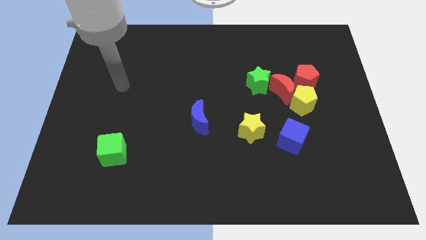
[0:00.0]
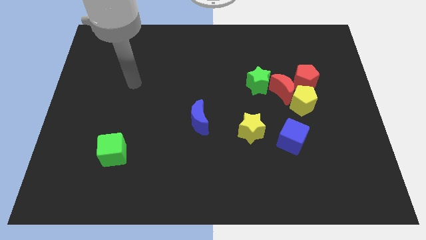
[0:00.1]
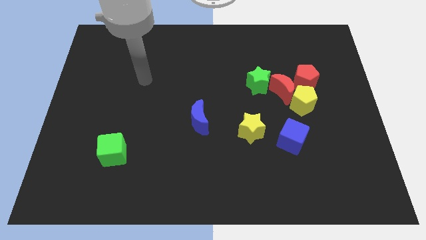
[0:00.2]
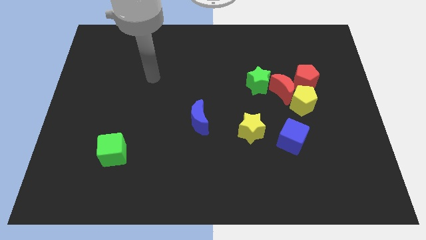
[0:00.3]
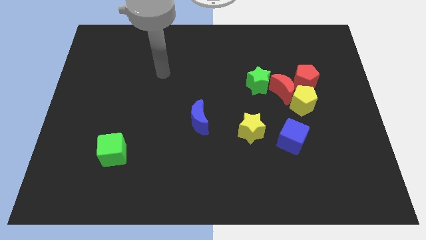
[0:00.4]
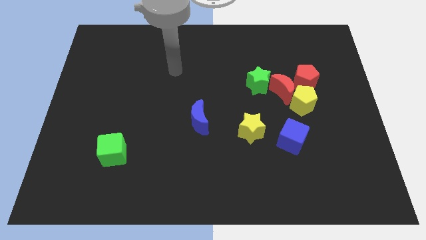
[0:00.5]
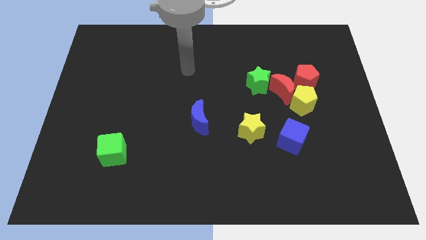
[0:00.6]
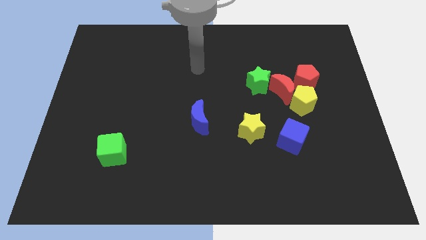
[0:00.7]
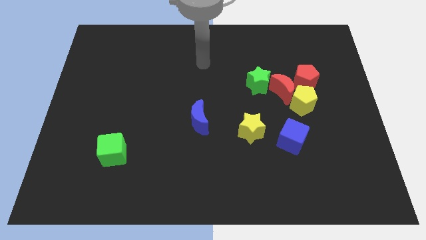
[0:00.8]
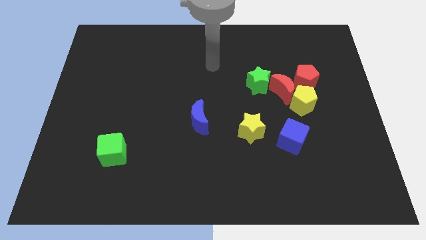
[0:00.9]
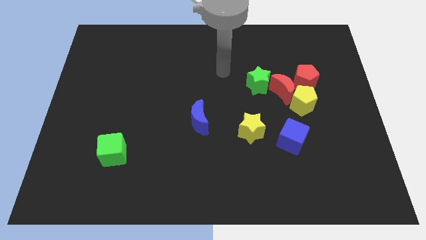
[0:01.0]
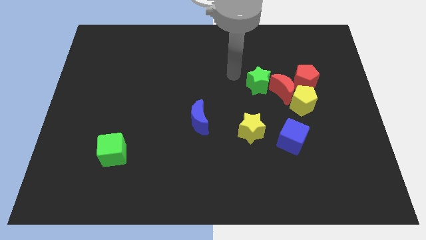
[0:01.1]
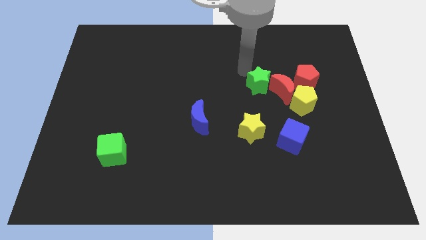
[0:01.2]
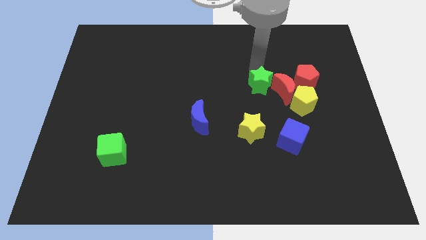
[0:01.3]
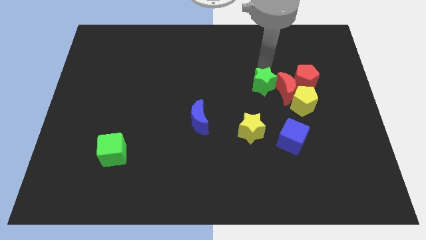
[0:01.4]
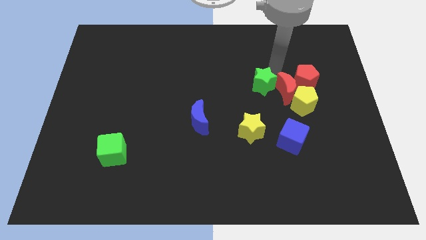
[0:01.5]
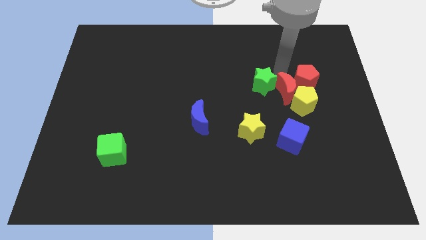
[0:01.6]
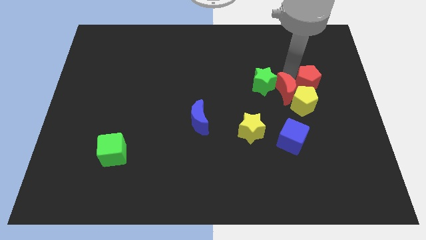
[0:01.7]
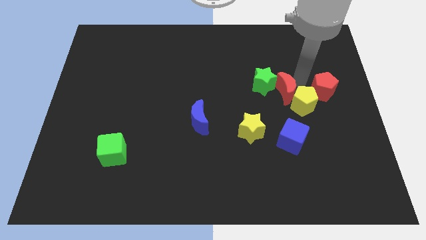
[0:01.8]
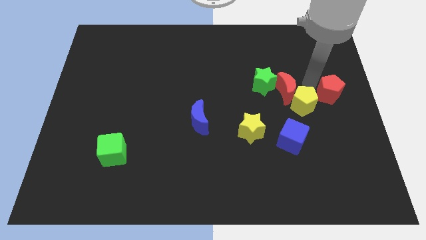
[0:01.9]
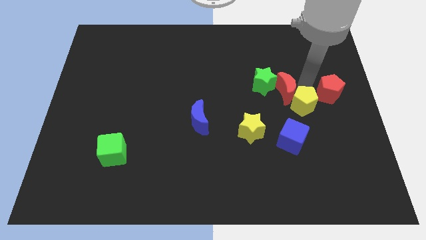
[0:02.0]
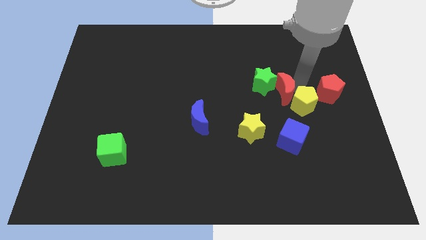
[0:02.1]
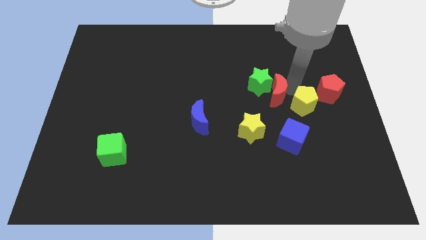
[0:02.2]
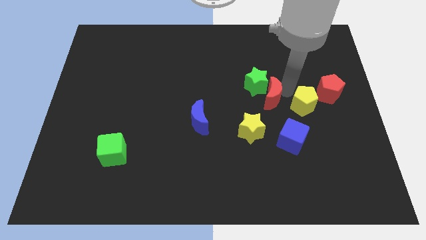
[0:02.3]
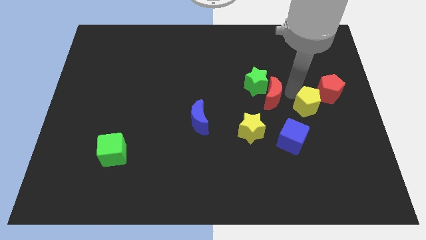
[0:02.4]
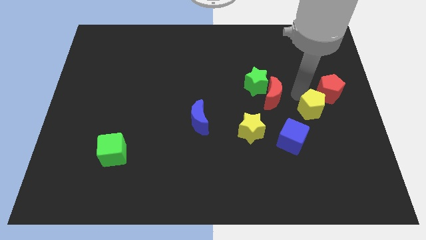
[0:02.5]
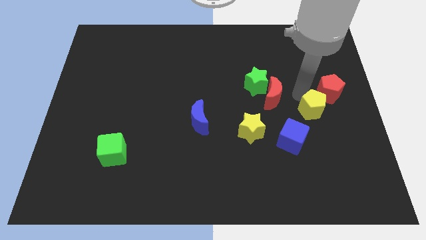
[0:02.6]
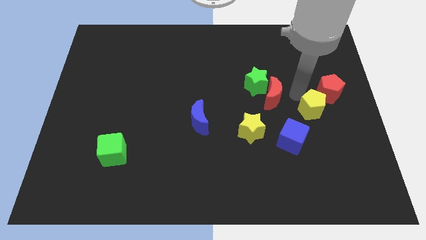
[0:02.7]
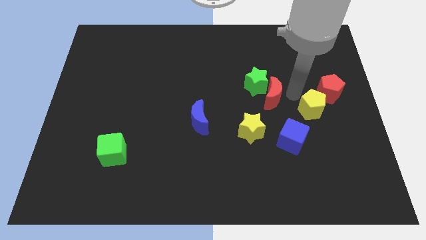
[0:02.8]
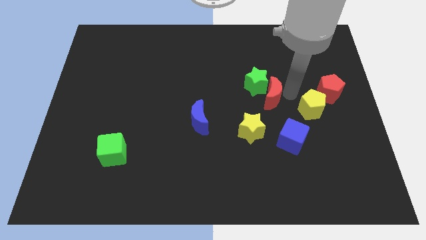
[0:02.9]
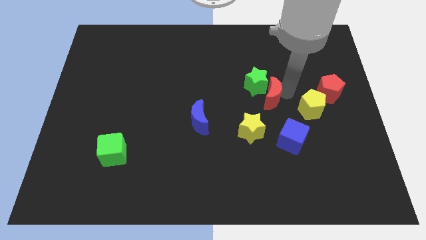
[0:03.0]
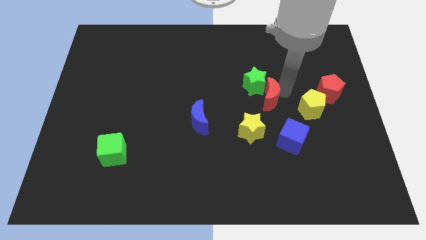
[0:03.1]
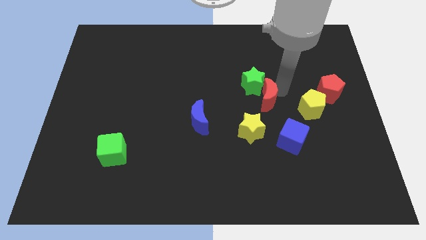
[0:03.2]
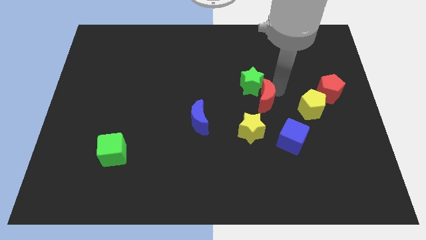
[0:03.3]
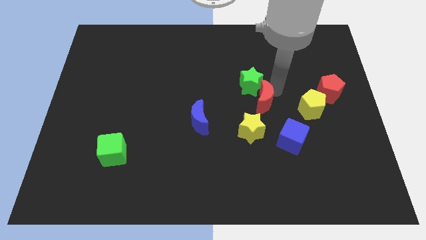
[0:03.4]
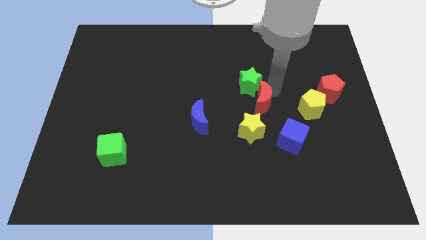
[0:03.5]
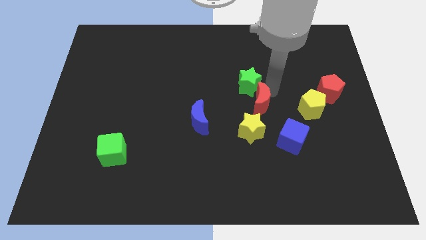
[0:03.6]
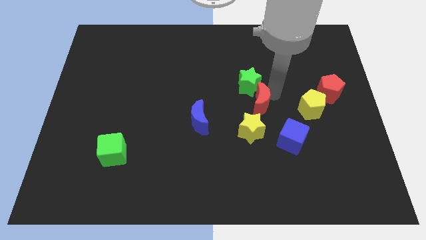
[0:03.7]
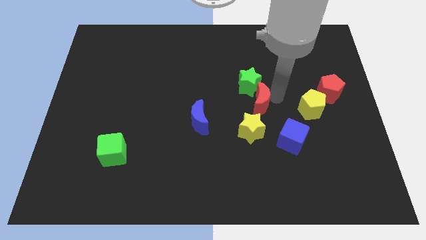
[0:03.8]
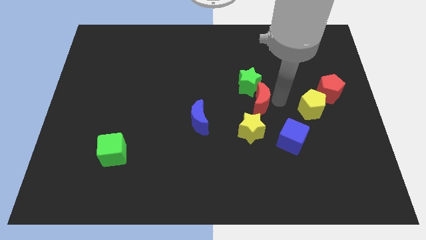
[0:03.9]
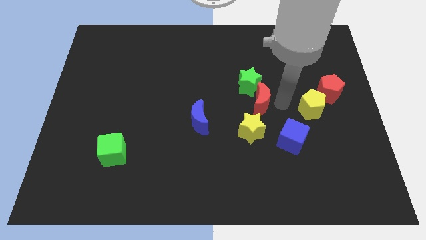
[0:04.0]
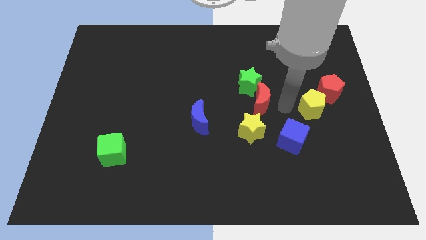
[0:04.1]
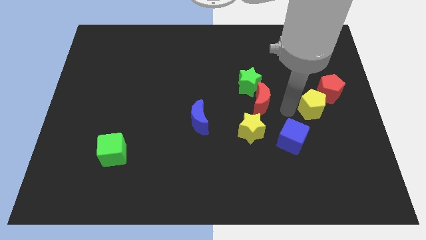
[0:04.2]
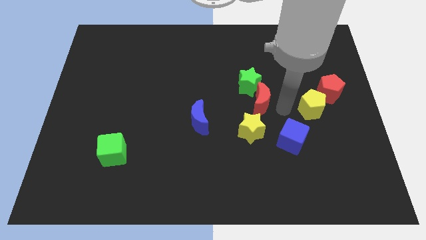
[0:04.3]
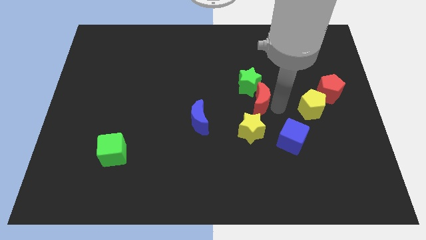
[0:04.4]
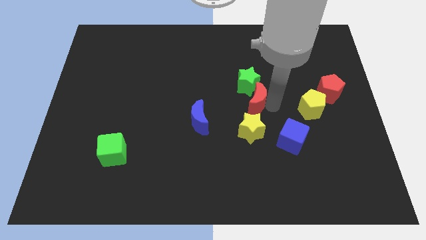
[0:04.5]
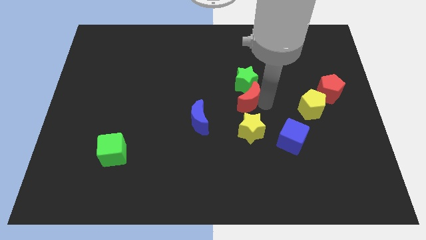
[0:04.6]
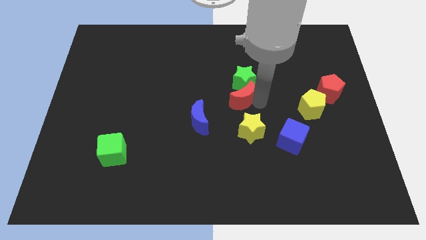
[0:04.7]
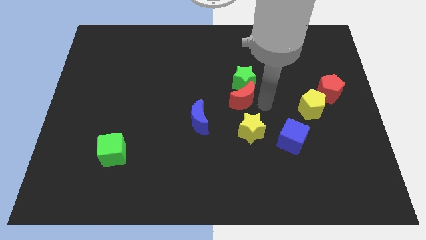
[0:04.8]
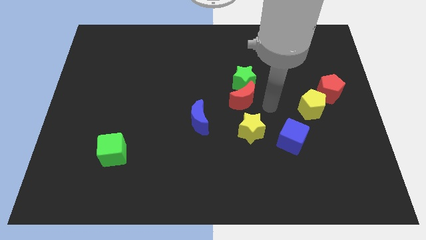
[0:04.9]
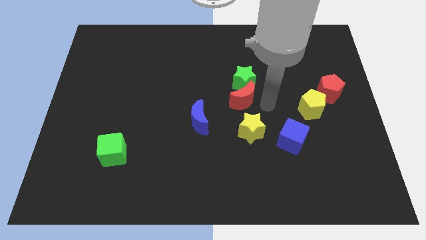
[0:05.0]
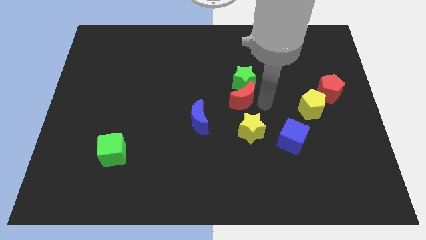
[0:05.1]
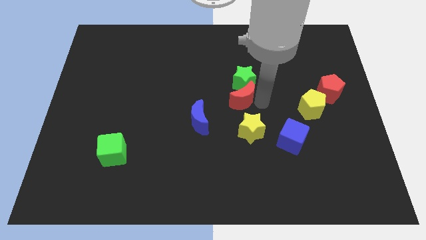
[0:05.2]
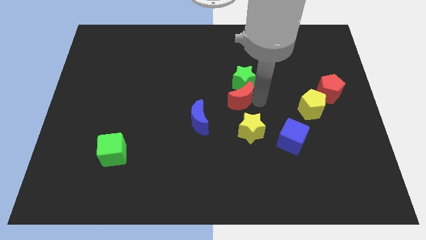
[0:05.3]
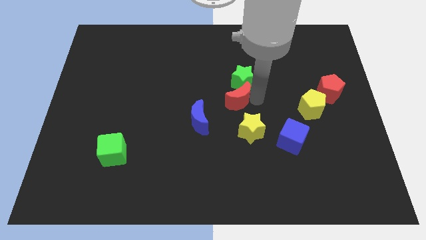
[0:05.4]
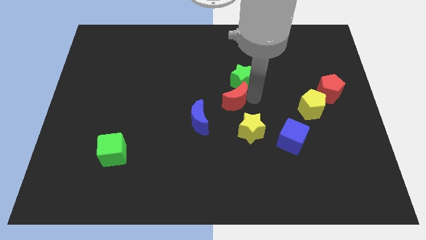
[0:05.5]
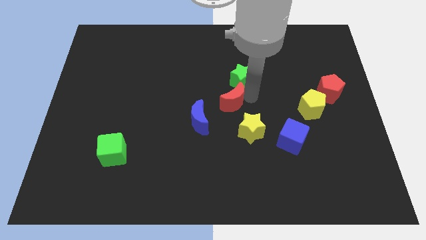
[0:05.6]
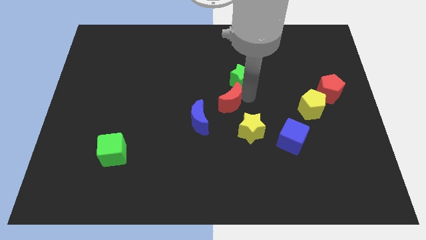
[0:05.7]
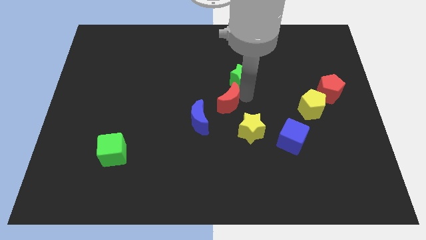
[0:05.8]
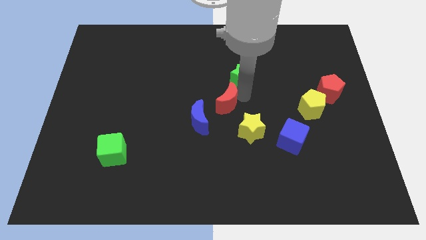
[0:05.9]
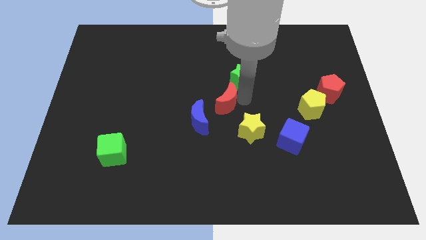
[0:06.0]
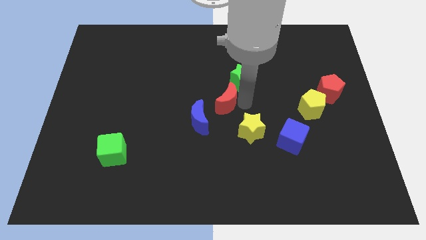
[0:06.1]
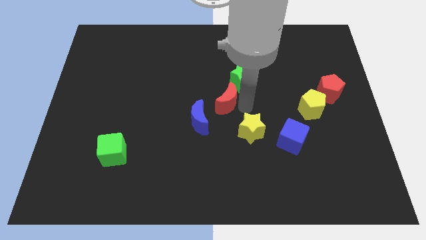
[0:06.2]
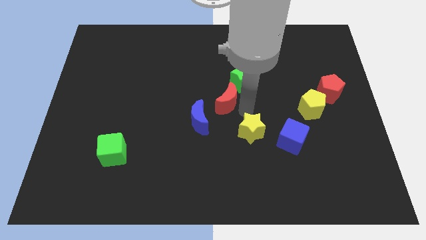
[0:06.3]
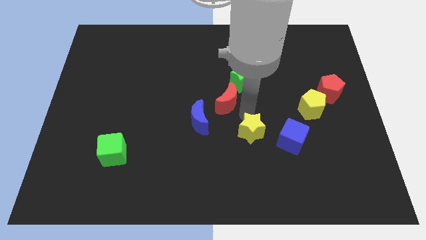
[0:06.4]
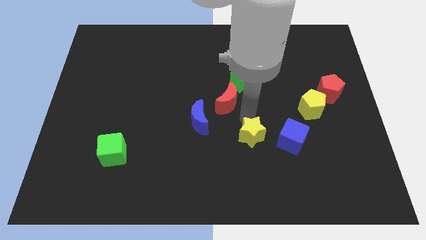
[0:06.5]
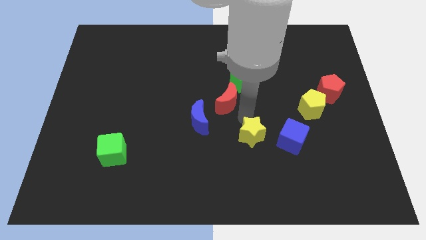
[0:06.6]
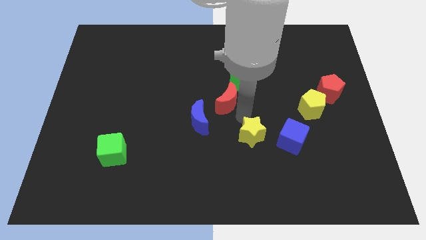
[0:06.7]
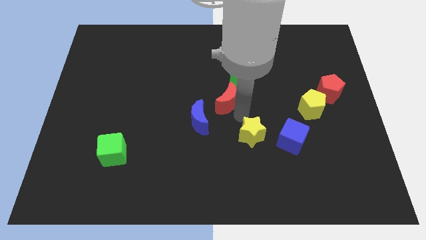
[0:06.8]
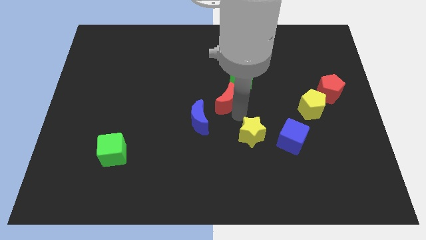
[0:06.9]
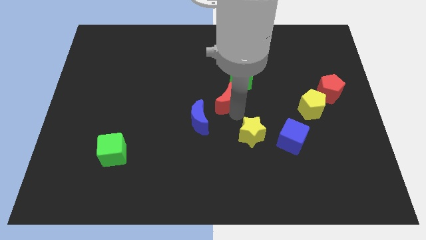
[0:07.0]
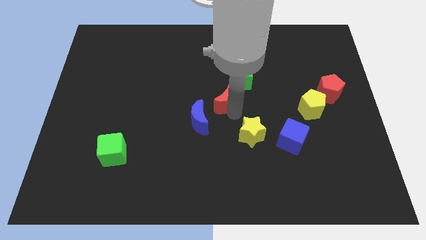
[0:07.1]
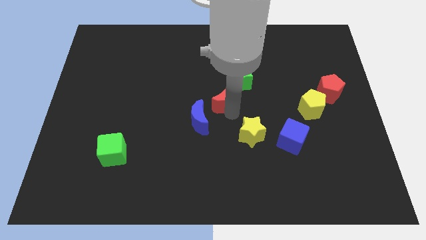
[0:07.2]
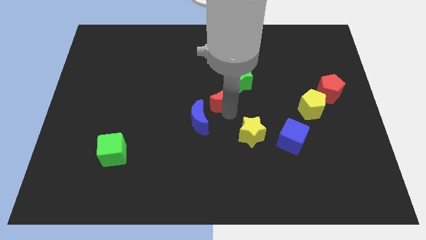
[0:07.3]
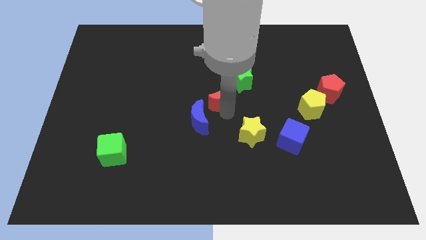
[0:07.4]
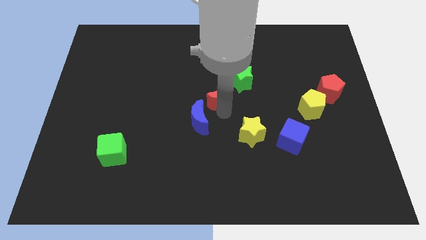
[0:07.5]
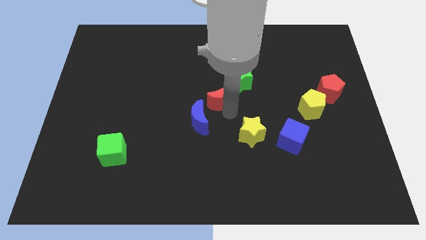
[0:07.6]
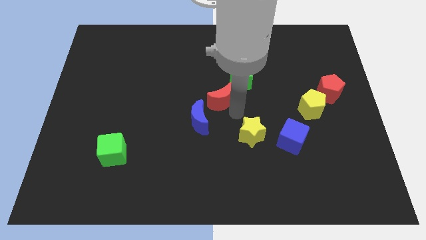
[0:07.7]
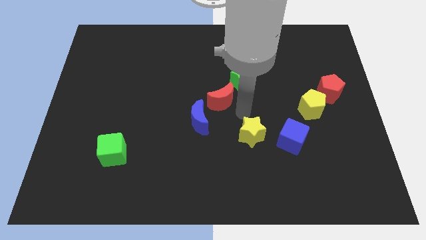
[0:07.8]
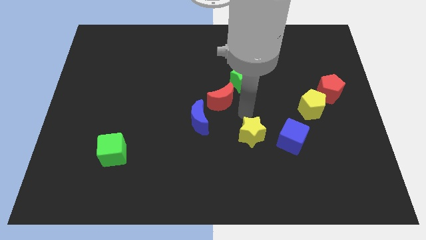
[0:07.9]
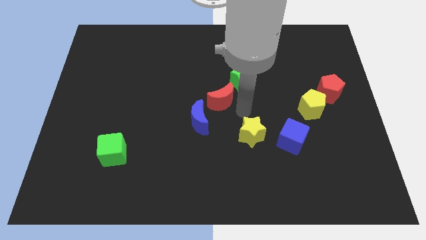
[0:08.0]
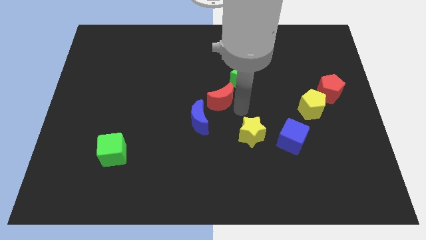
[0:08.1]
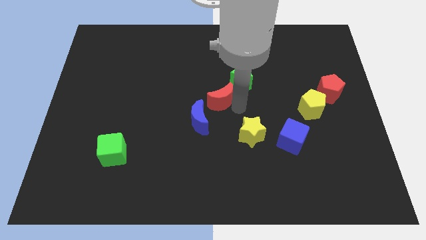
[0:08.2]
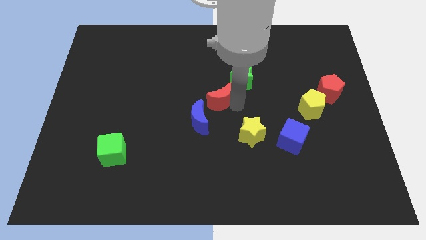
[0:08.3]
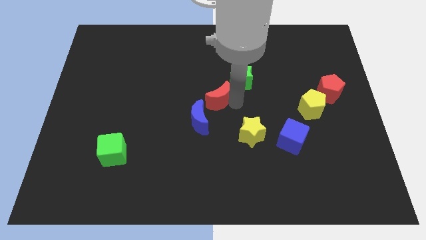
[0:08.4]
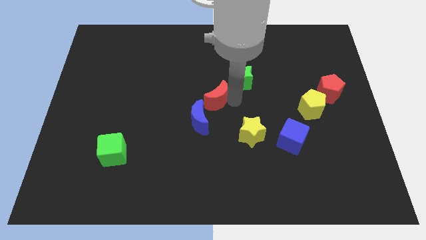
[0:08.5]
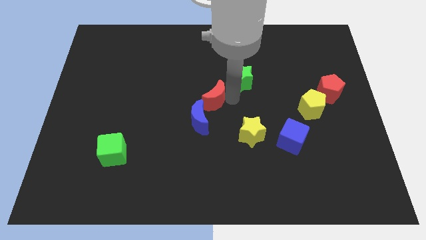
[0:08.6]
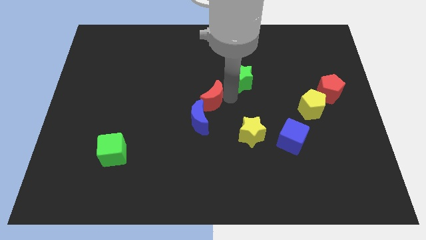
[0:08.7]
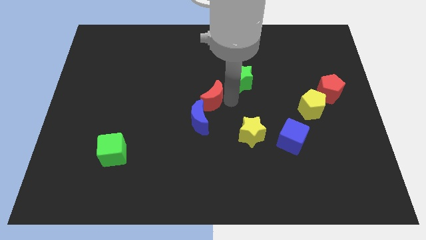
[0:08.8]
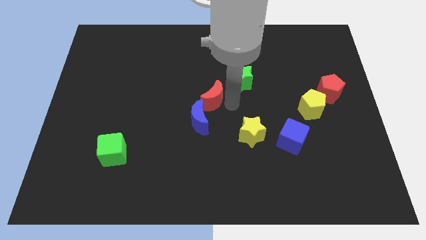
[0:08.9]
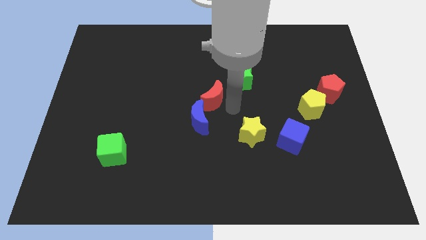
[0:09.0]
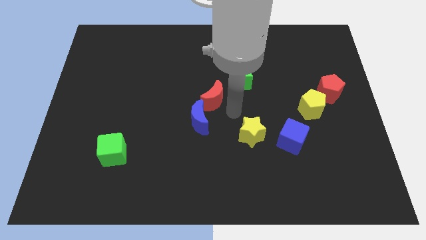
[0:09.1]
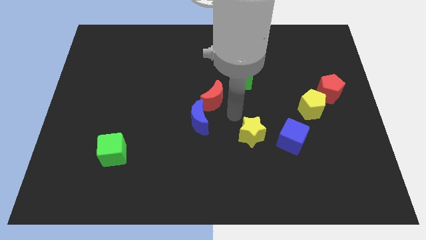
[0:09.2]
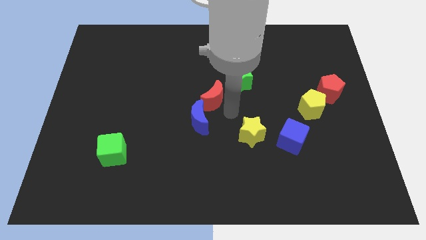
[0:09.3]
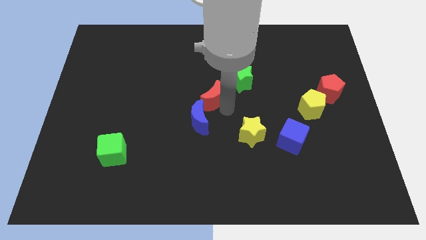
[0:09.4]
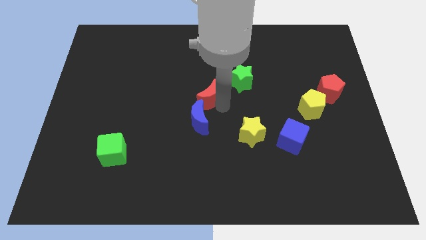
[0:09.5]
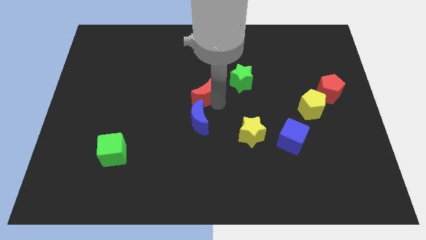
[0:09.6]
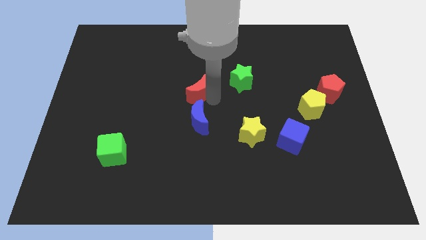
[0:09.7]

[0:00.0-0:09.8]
slide the red moon left
